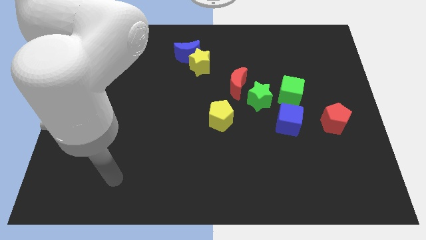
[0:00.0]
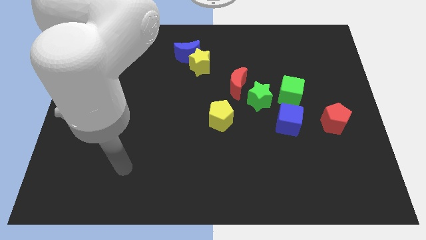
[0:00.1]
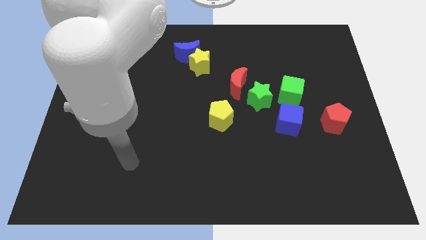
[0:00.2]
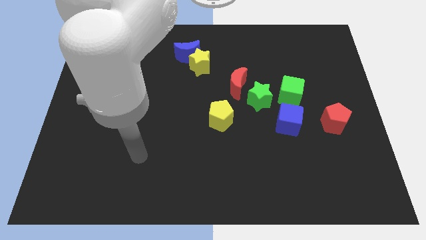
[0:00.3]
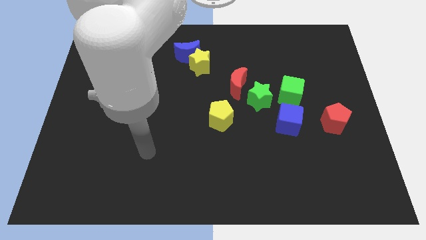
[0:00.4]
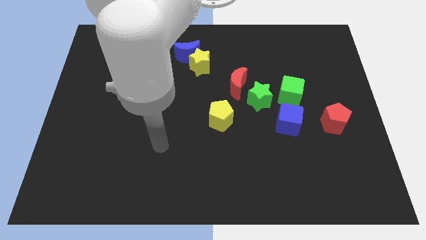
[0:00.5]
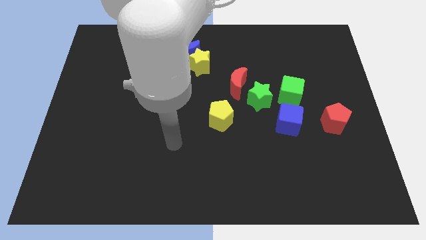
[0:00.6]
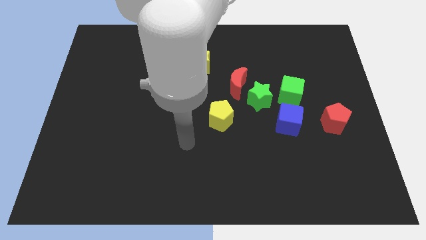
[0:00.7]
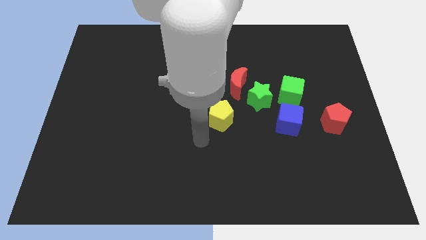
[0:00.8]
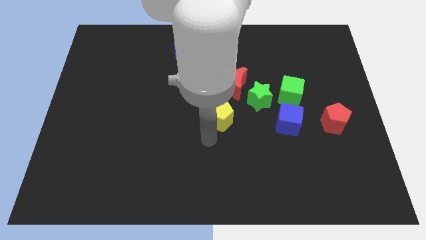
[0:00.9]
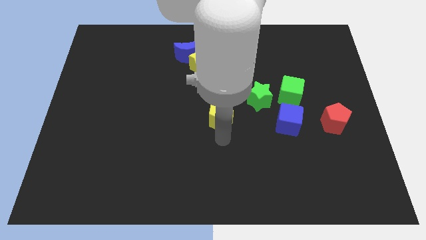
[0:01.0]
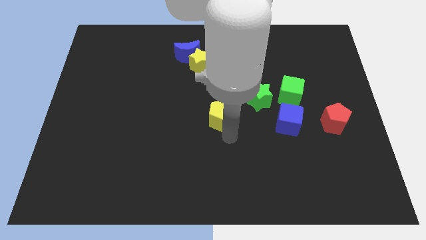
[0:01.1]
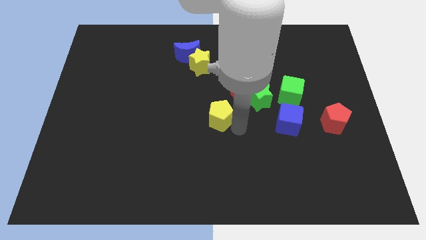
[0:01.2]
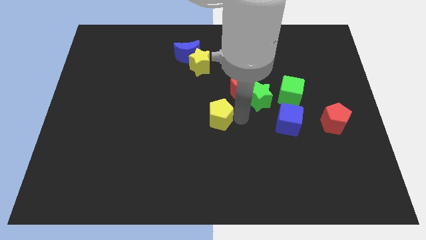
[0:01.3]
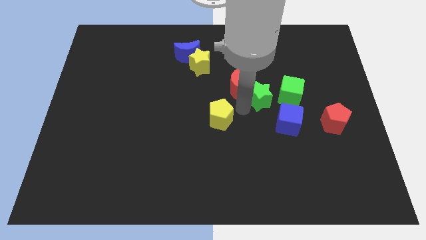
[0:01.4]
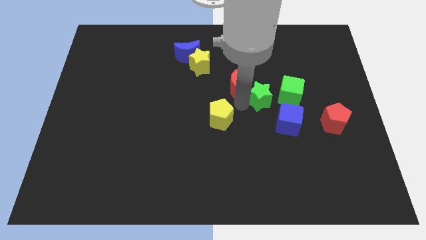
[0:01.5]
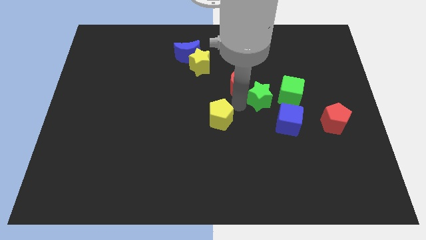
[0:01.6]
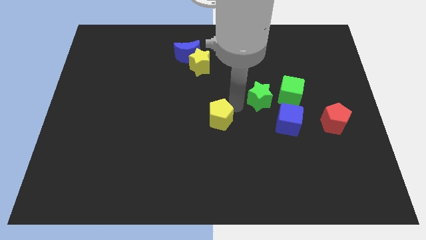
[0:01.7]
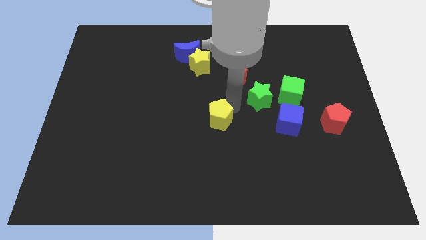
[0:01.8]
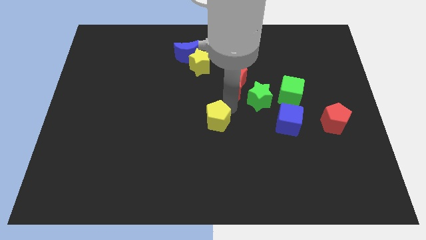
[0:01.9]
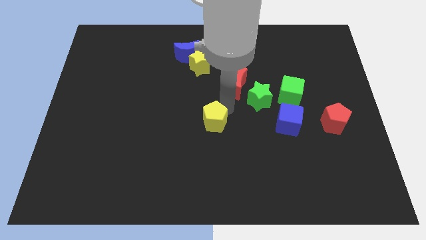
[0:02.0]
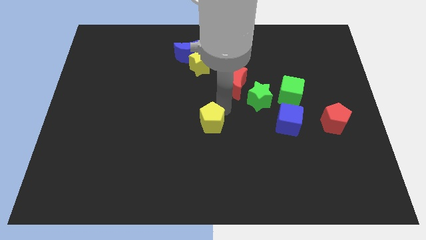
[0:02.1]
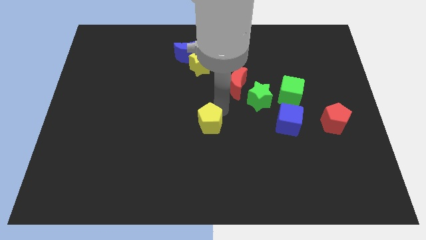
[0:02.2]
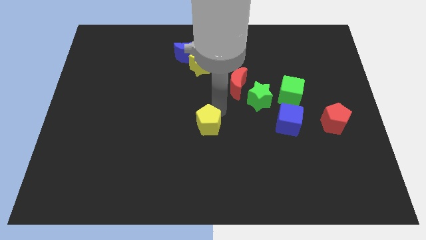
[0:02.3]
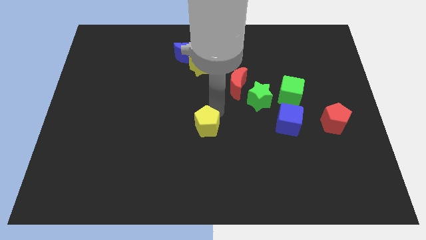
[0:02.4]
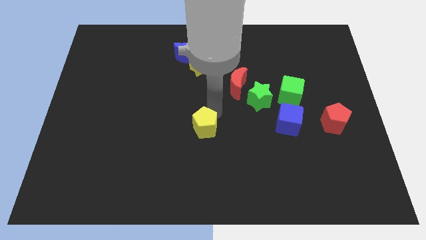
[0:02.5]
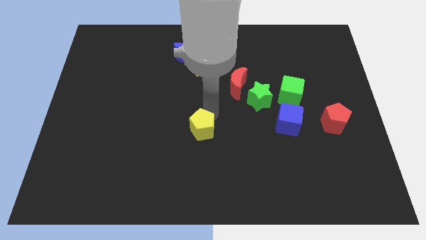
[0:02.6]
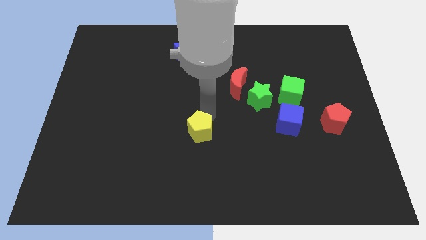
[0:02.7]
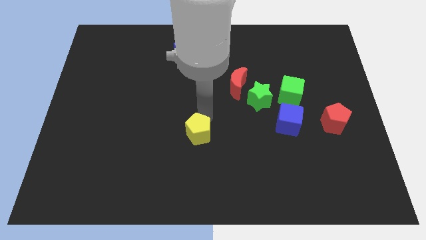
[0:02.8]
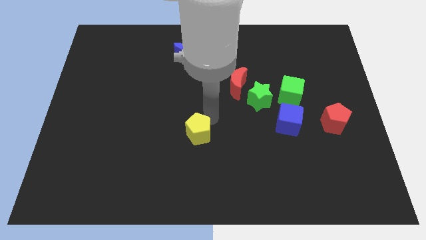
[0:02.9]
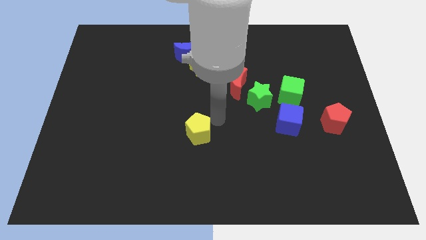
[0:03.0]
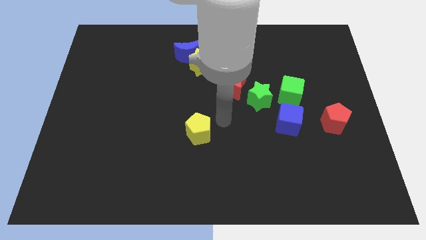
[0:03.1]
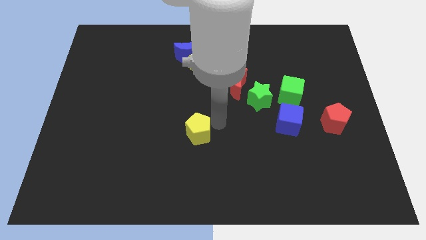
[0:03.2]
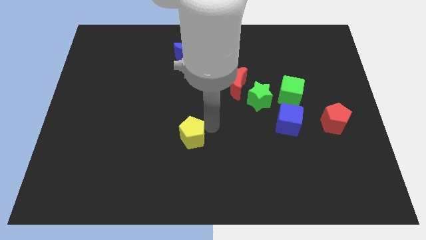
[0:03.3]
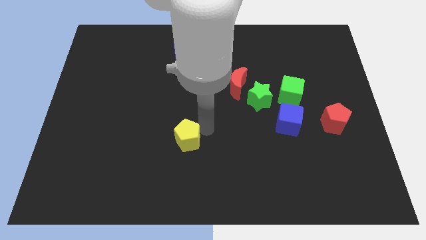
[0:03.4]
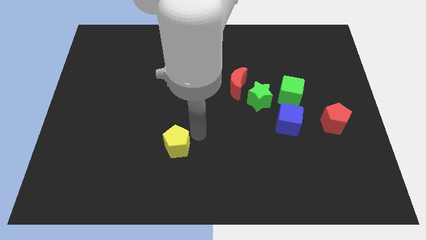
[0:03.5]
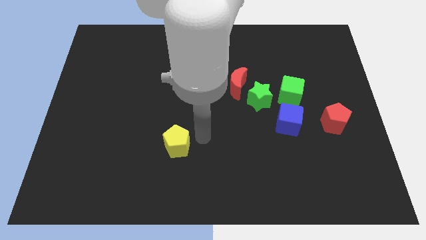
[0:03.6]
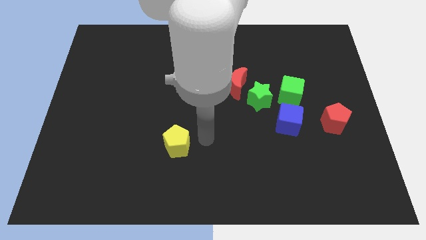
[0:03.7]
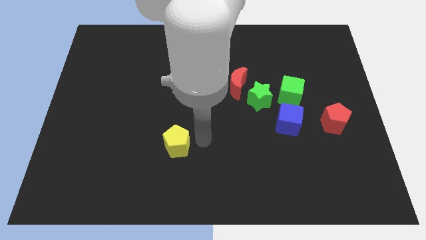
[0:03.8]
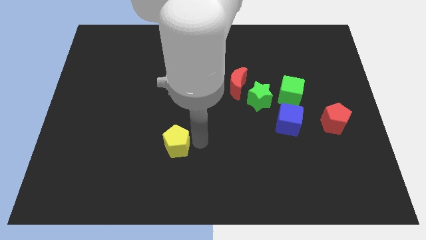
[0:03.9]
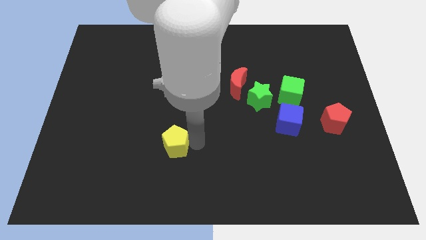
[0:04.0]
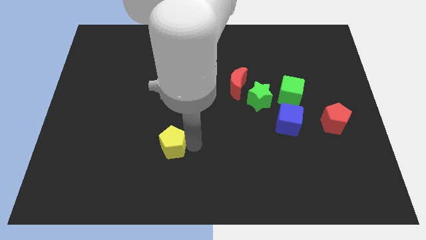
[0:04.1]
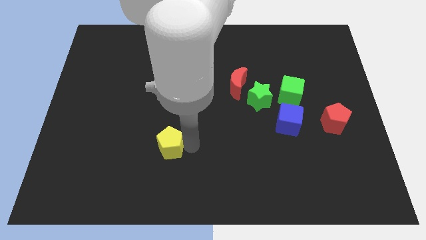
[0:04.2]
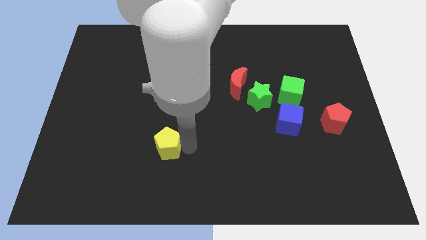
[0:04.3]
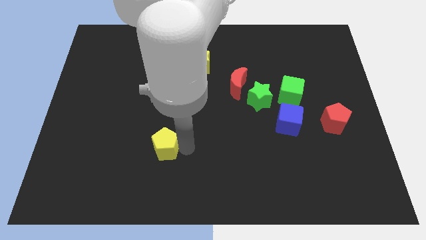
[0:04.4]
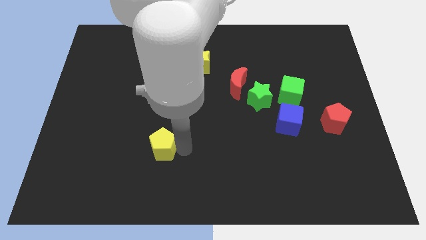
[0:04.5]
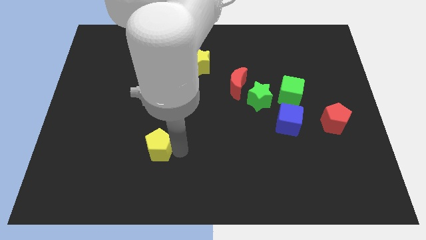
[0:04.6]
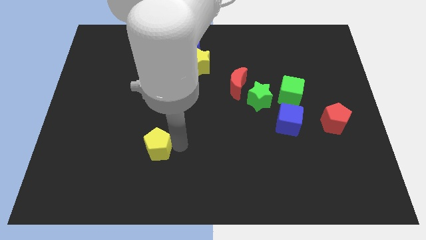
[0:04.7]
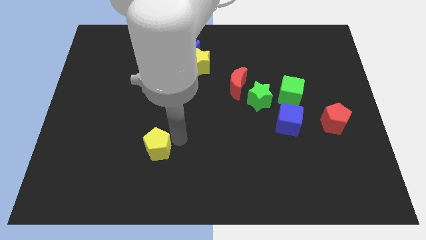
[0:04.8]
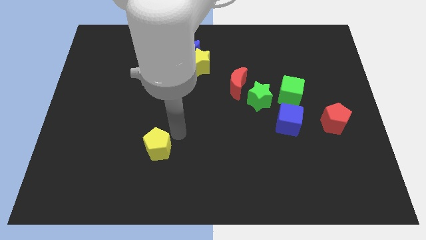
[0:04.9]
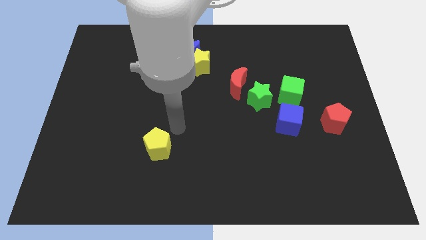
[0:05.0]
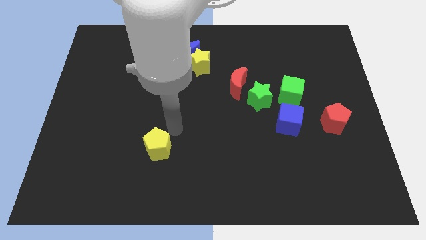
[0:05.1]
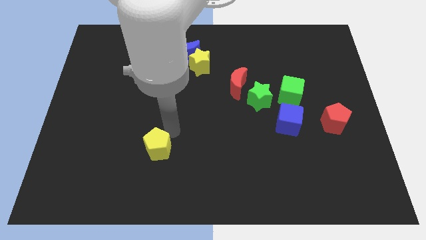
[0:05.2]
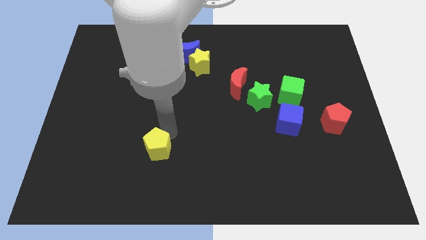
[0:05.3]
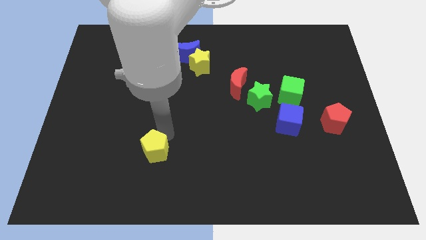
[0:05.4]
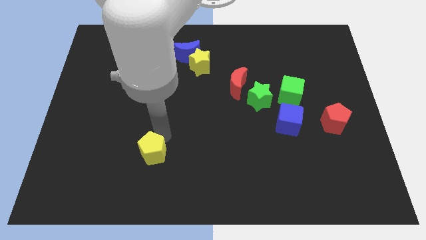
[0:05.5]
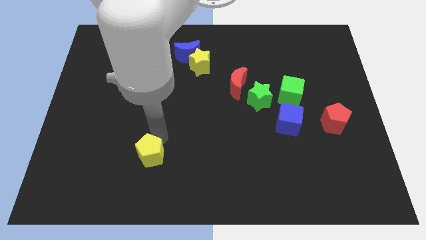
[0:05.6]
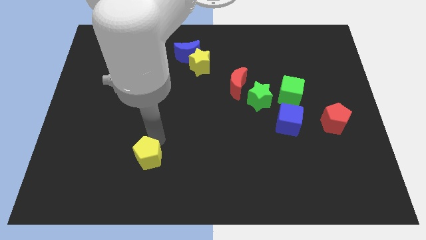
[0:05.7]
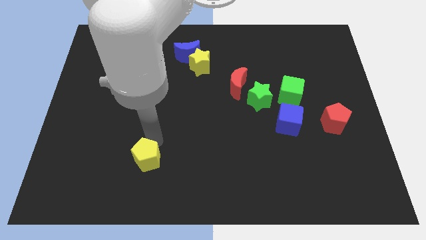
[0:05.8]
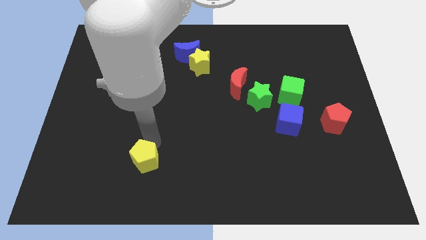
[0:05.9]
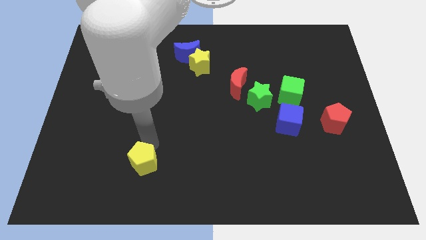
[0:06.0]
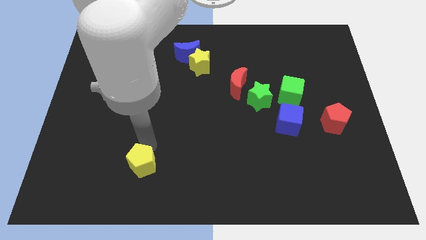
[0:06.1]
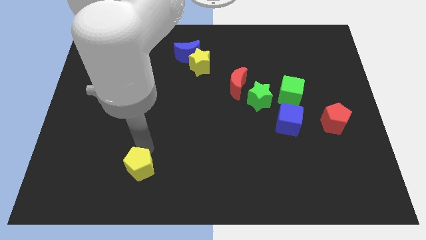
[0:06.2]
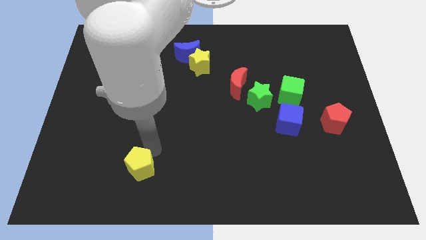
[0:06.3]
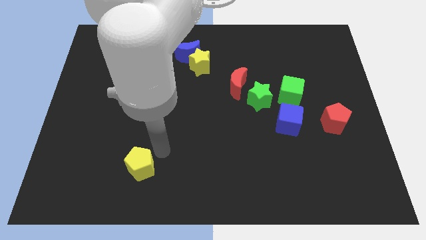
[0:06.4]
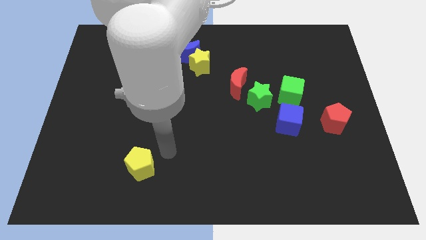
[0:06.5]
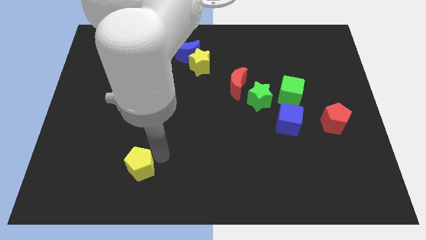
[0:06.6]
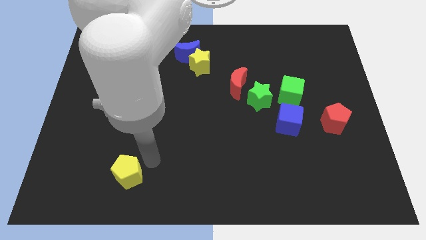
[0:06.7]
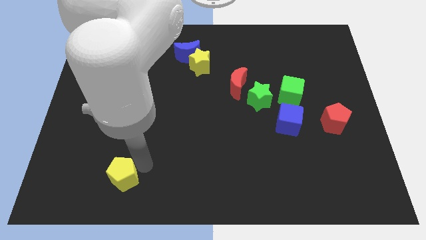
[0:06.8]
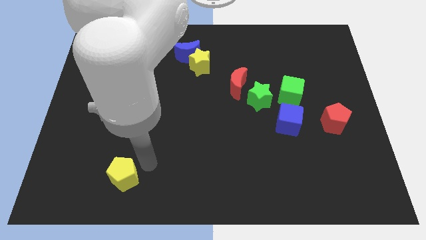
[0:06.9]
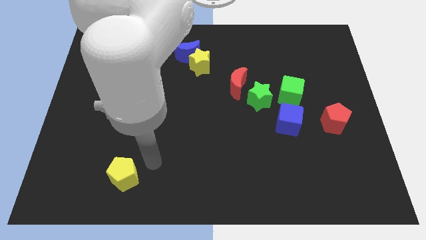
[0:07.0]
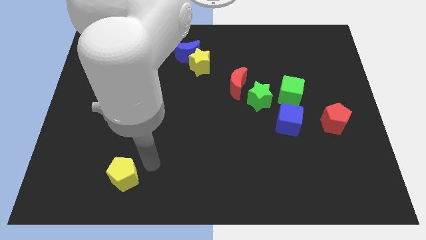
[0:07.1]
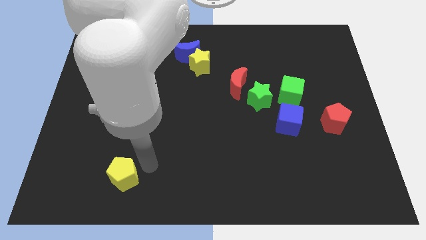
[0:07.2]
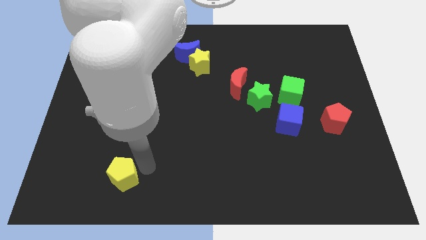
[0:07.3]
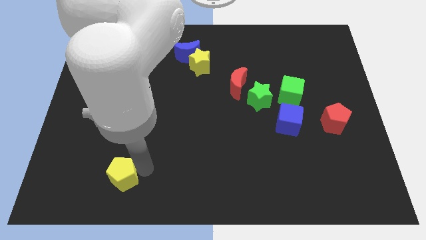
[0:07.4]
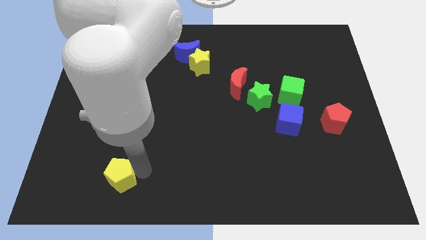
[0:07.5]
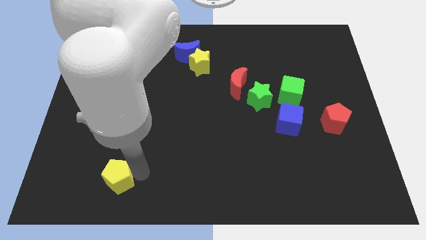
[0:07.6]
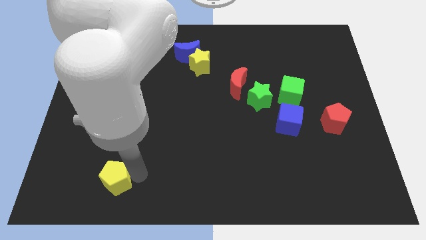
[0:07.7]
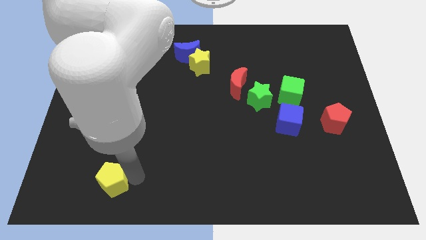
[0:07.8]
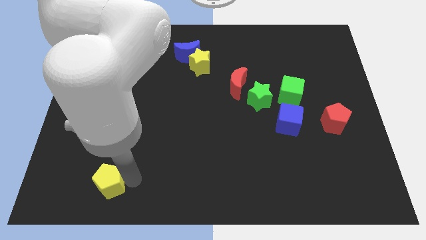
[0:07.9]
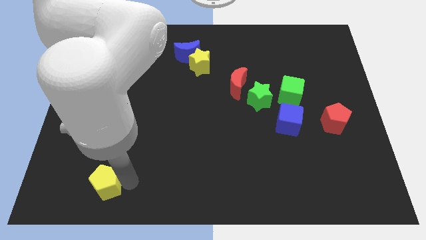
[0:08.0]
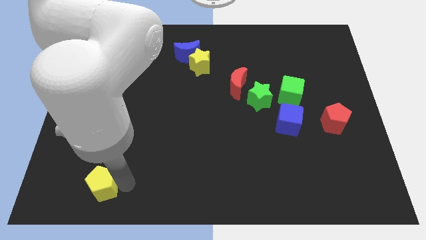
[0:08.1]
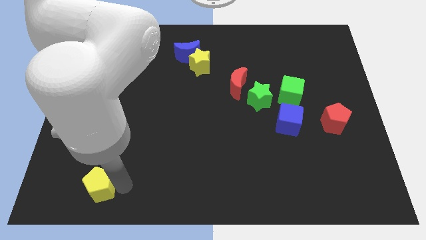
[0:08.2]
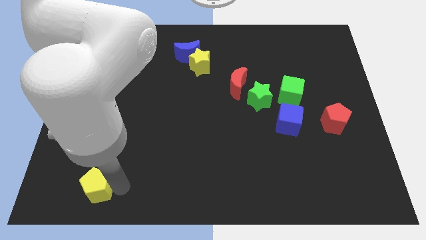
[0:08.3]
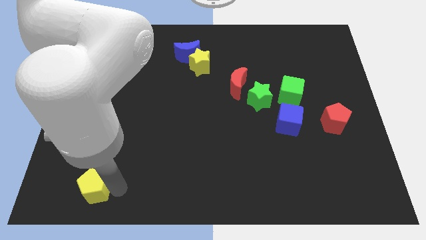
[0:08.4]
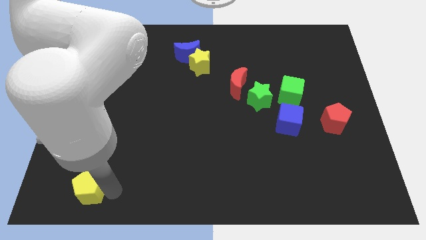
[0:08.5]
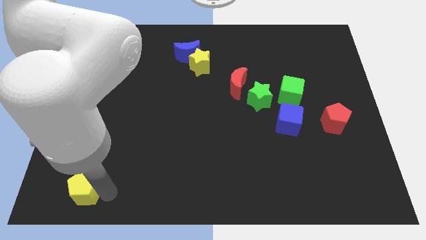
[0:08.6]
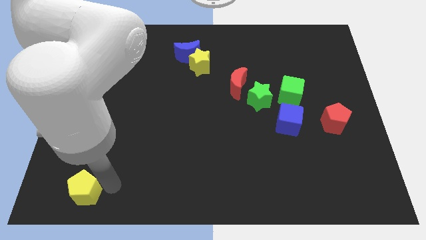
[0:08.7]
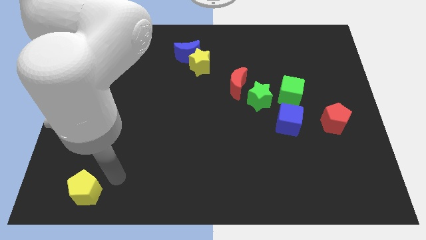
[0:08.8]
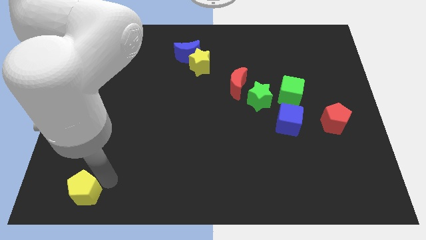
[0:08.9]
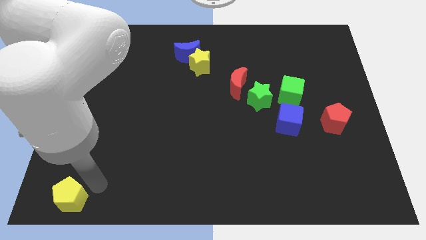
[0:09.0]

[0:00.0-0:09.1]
push the yellow pentagon to the bottom left
